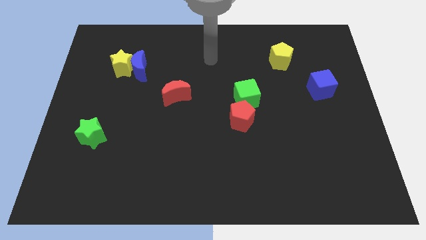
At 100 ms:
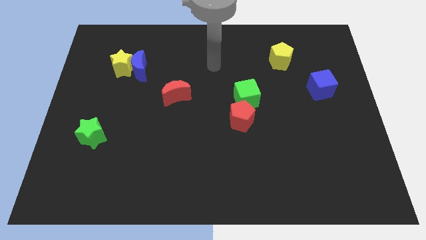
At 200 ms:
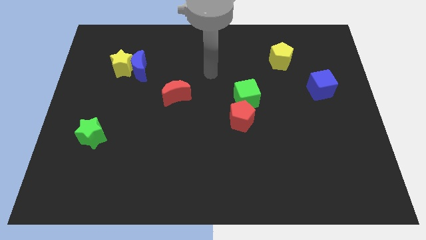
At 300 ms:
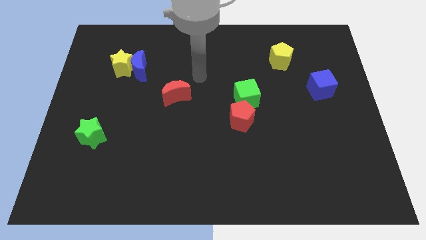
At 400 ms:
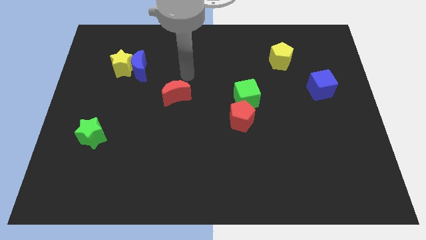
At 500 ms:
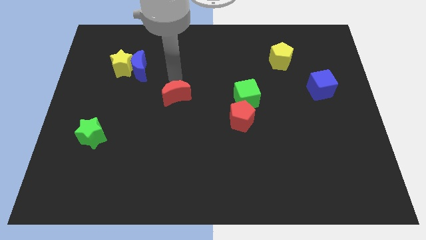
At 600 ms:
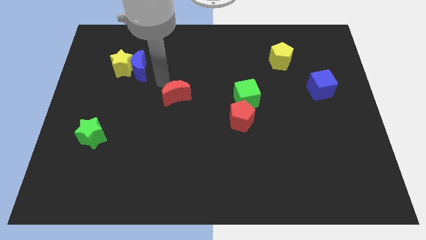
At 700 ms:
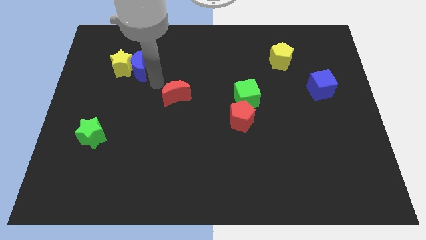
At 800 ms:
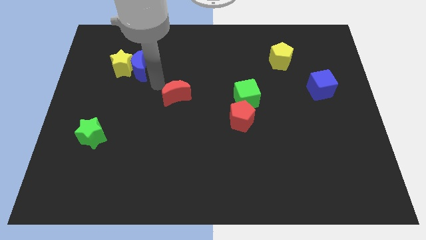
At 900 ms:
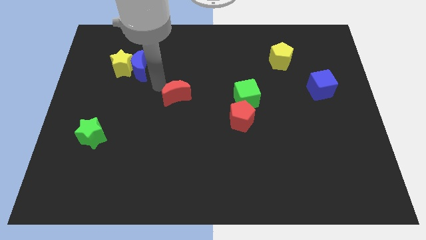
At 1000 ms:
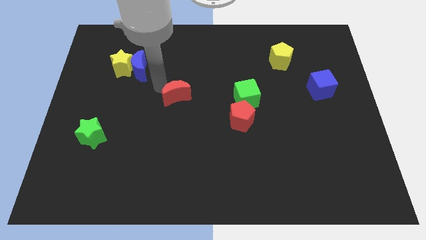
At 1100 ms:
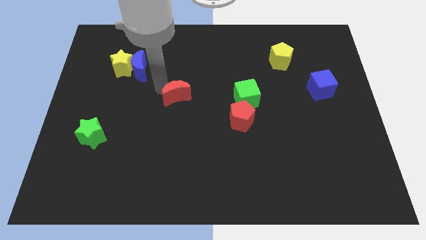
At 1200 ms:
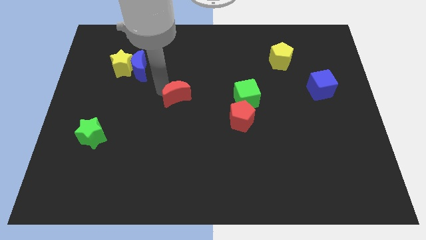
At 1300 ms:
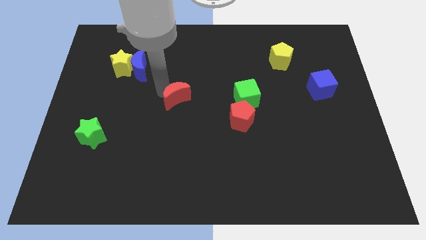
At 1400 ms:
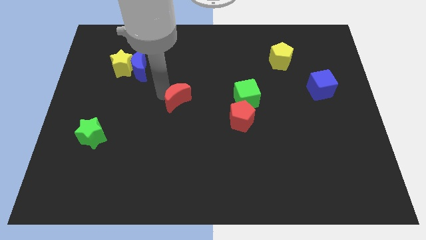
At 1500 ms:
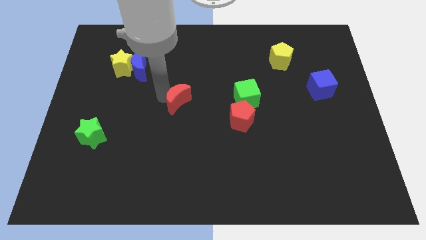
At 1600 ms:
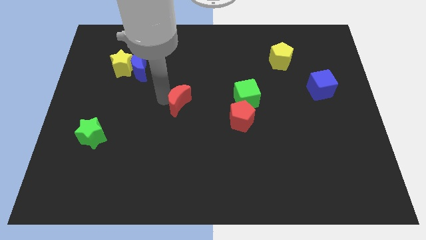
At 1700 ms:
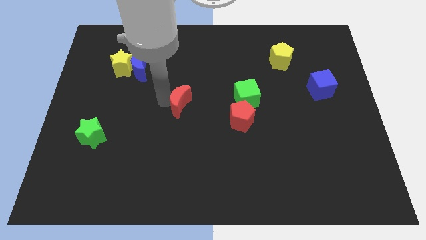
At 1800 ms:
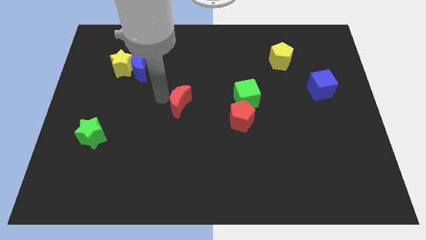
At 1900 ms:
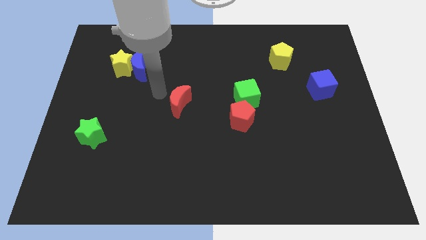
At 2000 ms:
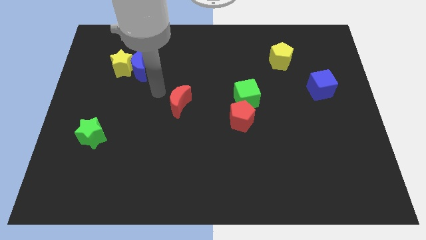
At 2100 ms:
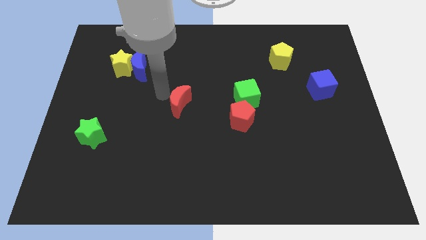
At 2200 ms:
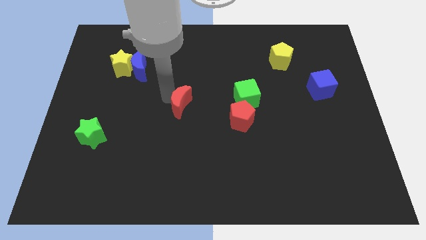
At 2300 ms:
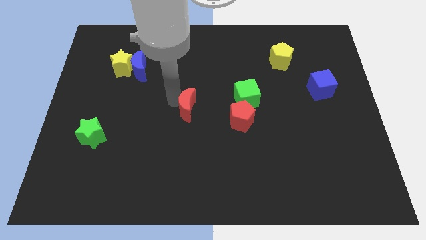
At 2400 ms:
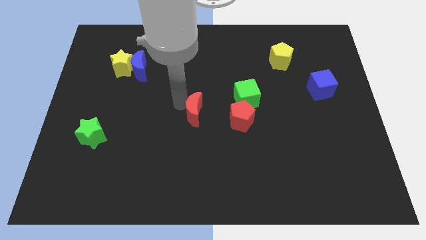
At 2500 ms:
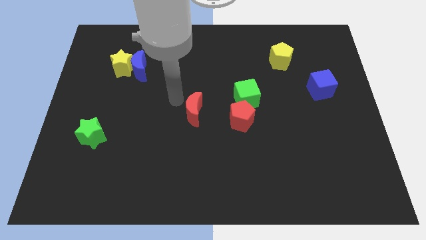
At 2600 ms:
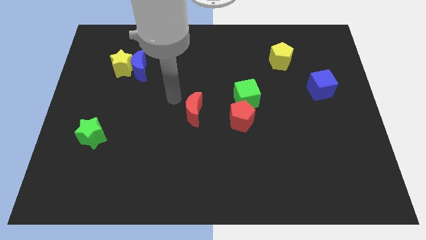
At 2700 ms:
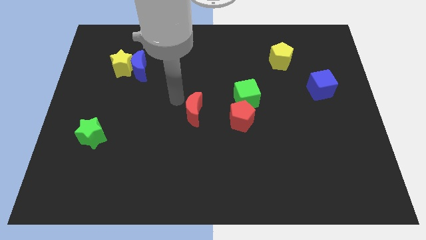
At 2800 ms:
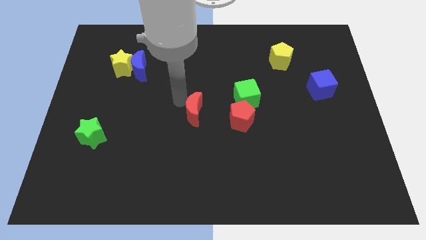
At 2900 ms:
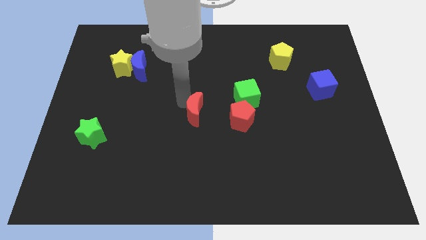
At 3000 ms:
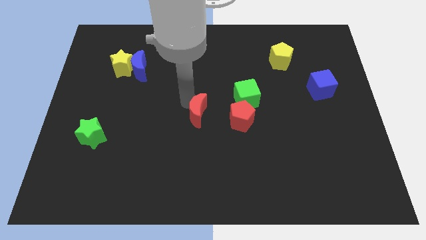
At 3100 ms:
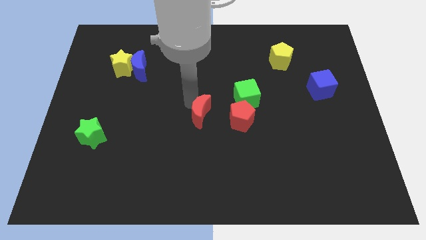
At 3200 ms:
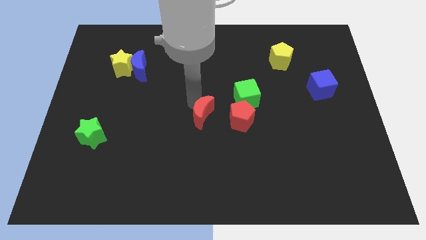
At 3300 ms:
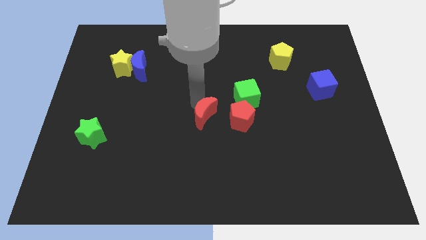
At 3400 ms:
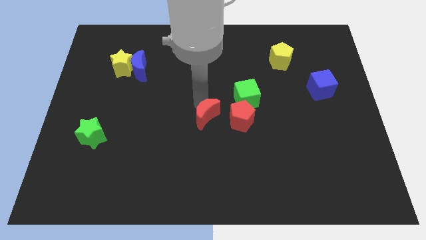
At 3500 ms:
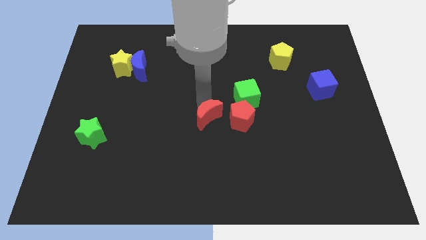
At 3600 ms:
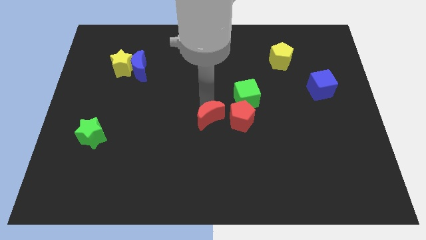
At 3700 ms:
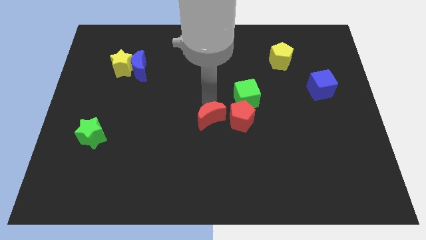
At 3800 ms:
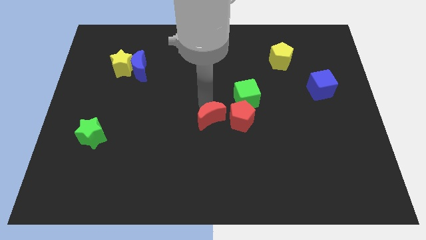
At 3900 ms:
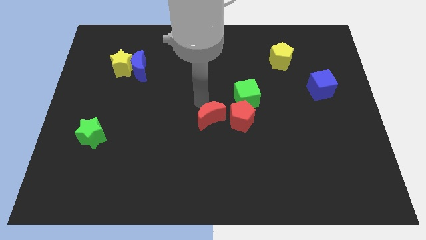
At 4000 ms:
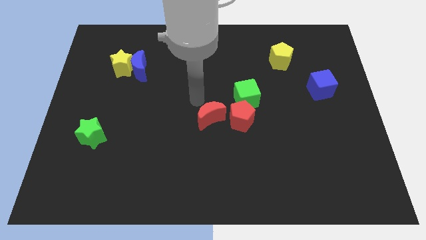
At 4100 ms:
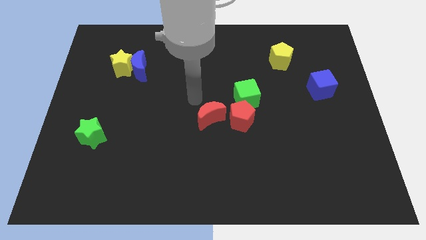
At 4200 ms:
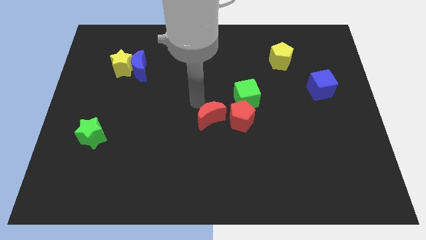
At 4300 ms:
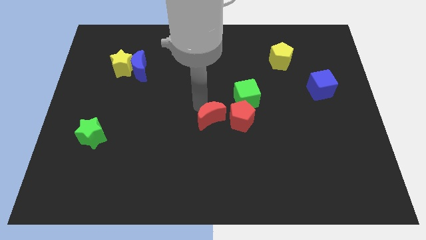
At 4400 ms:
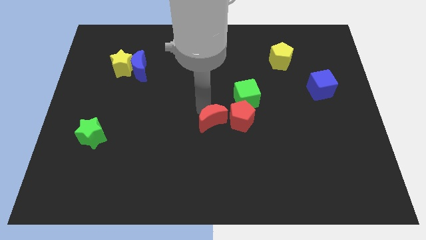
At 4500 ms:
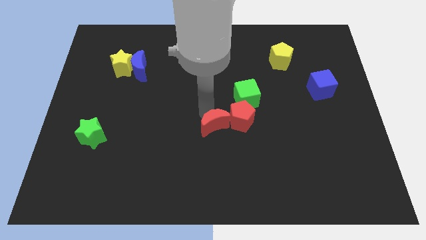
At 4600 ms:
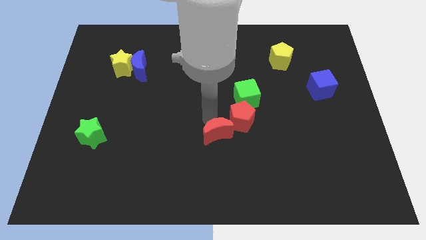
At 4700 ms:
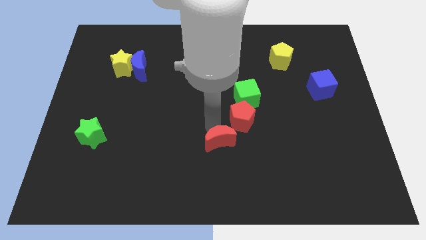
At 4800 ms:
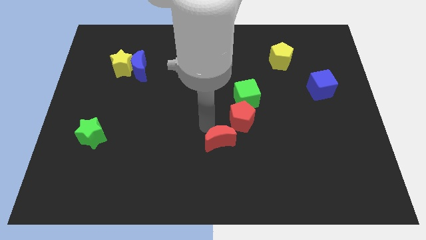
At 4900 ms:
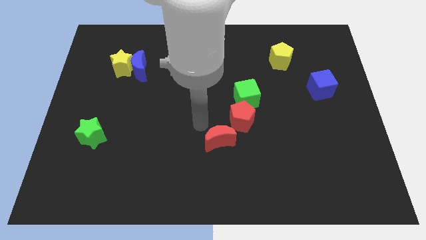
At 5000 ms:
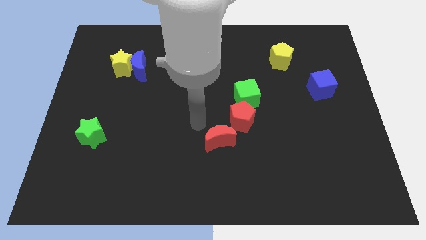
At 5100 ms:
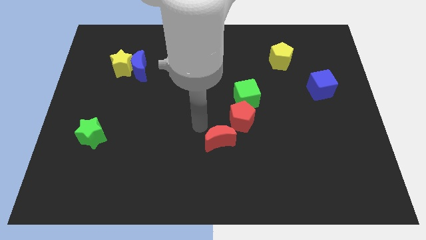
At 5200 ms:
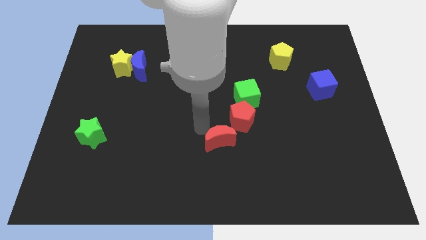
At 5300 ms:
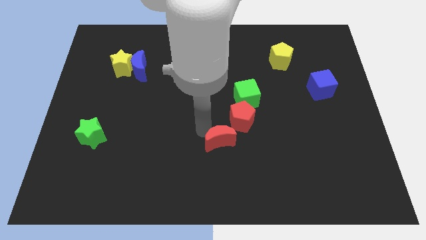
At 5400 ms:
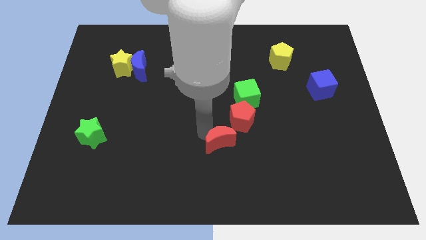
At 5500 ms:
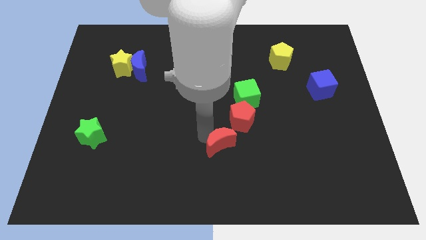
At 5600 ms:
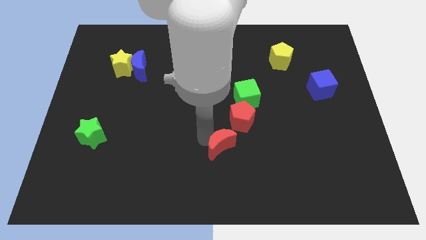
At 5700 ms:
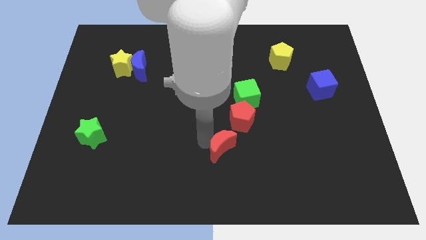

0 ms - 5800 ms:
move the red moon to the bottom side of the red pentagon

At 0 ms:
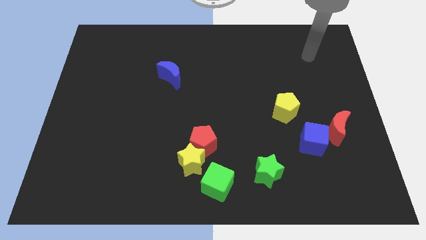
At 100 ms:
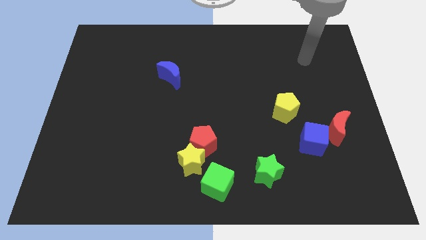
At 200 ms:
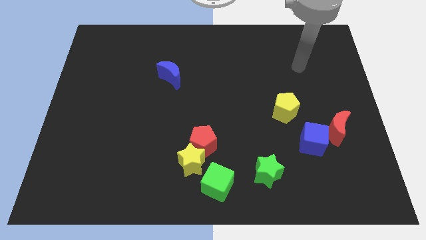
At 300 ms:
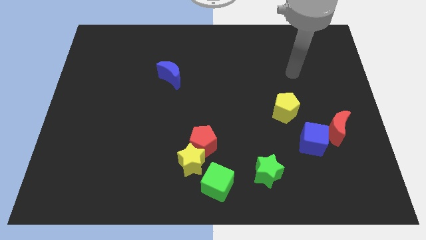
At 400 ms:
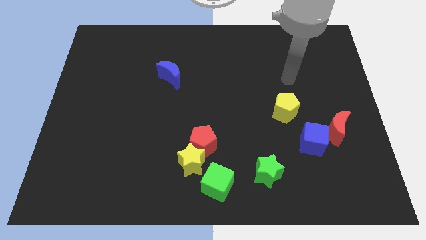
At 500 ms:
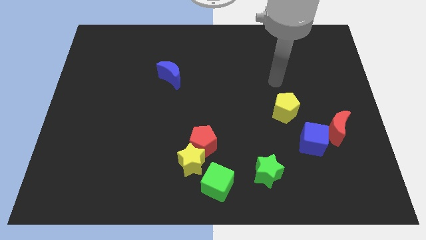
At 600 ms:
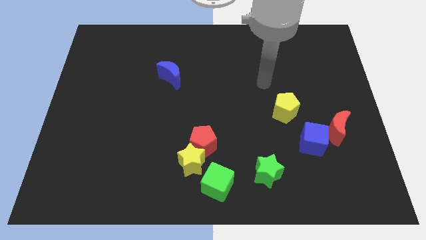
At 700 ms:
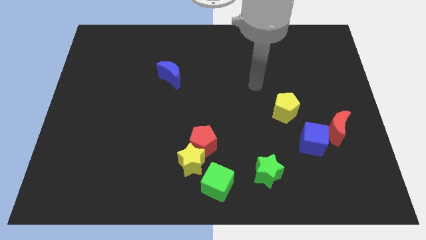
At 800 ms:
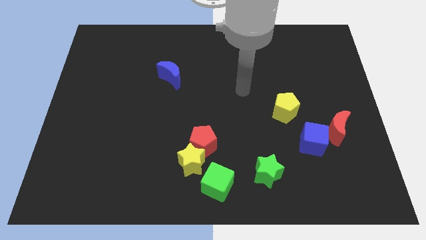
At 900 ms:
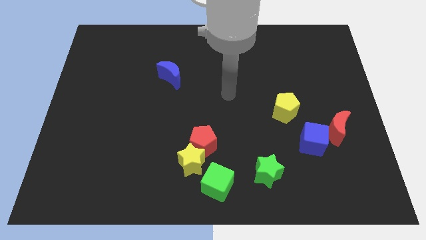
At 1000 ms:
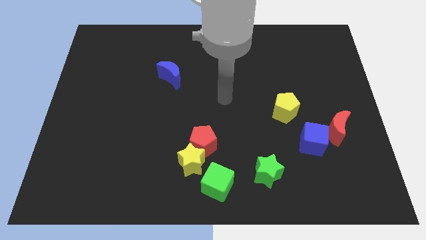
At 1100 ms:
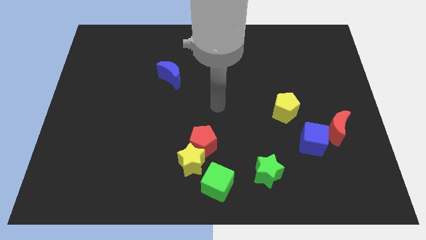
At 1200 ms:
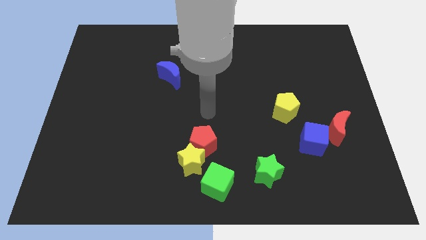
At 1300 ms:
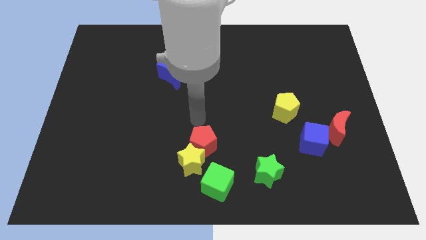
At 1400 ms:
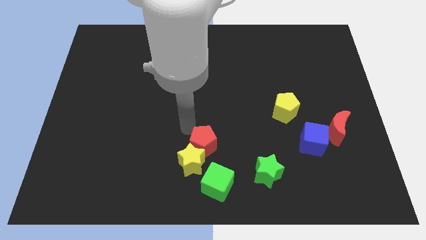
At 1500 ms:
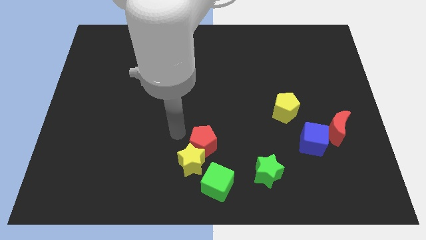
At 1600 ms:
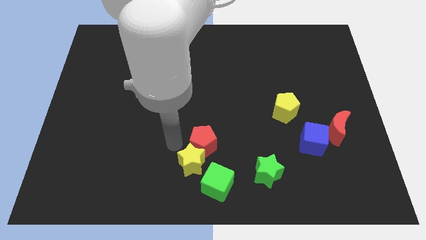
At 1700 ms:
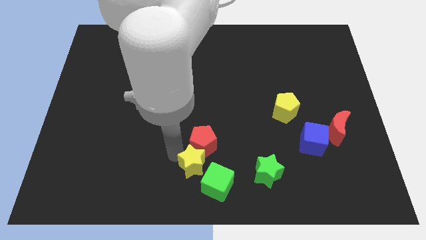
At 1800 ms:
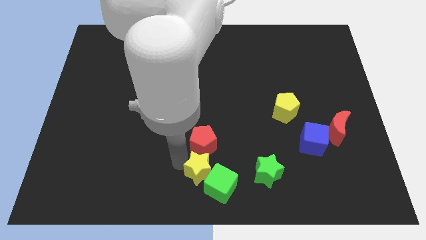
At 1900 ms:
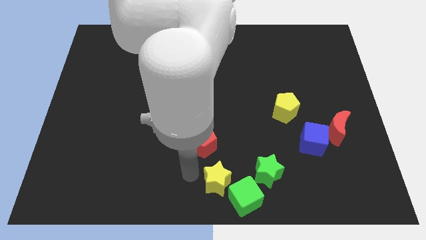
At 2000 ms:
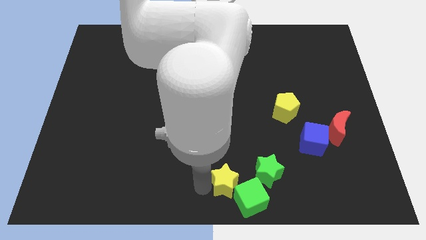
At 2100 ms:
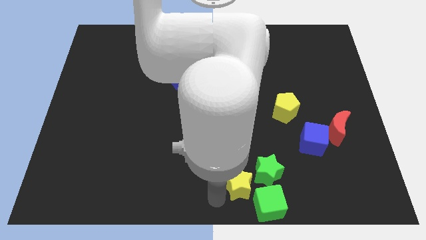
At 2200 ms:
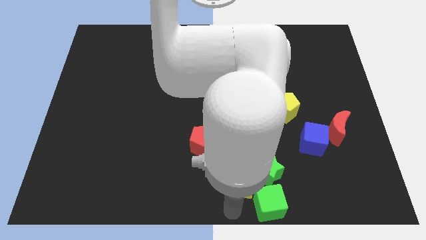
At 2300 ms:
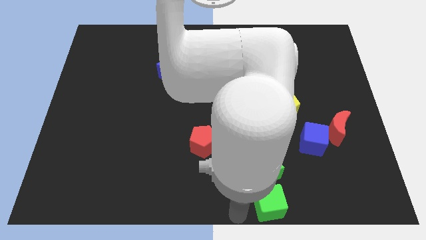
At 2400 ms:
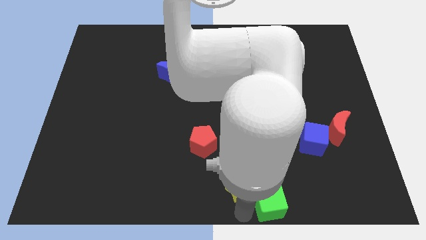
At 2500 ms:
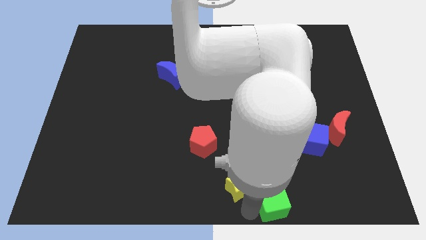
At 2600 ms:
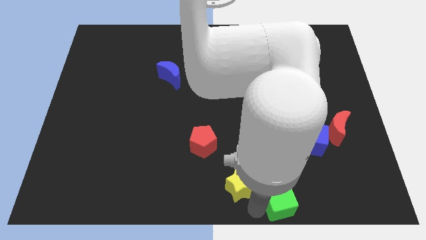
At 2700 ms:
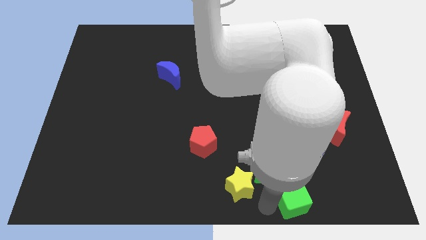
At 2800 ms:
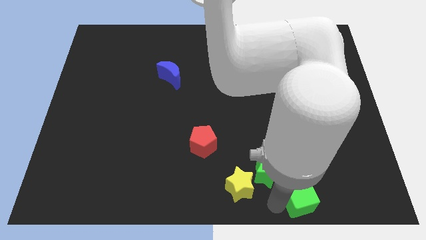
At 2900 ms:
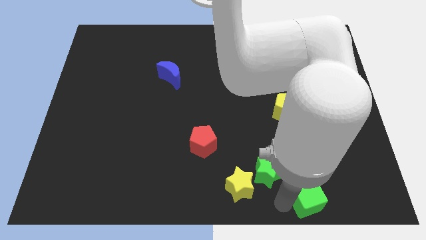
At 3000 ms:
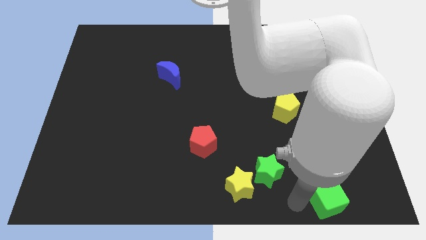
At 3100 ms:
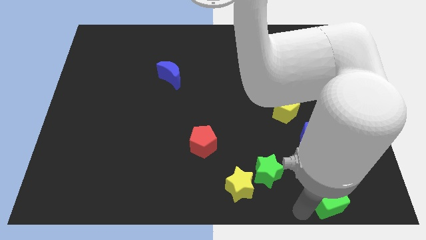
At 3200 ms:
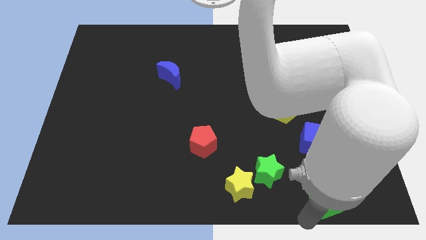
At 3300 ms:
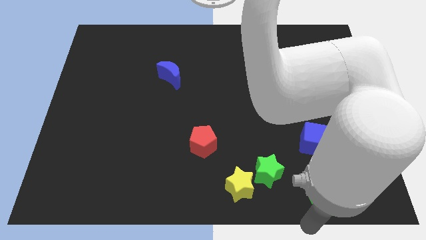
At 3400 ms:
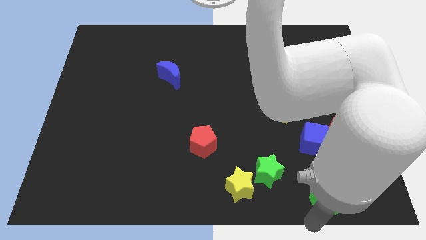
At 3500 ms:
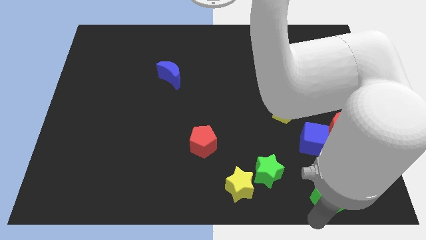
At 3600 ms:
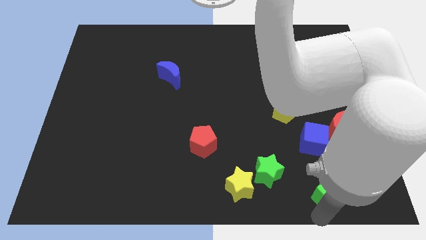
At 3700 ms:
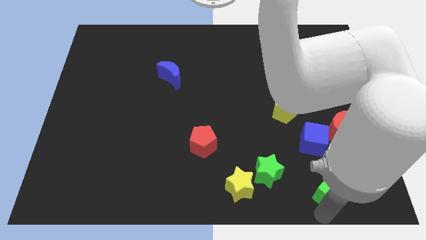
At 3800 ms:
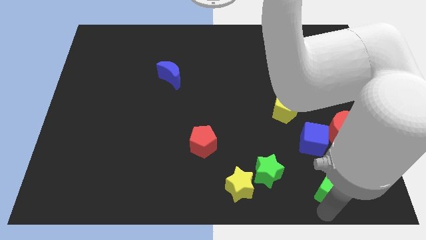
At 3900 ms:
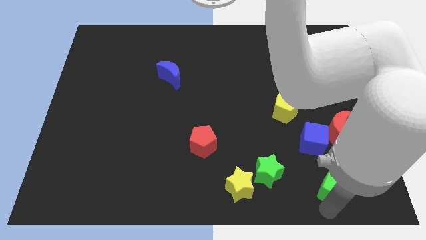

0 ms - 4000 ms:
slide the green cube to the bottom side of the red moon
